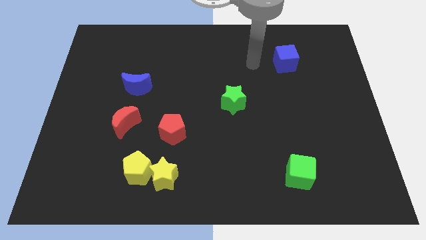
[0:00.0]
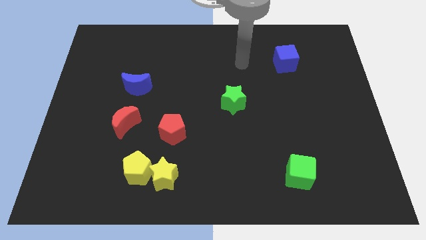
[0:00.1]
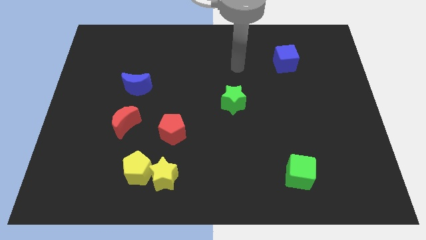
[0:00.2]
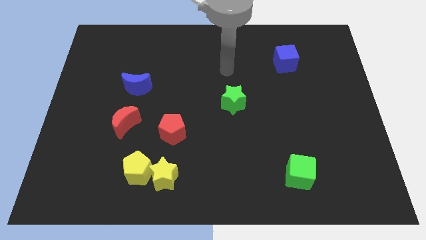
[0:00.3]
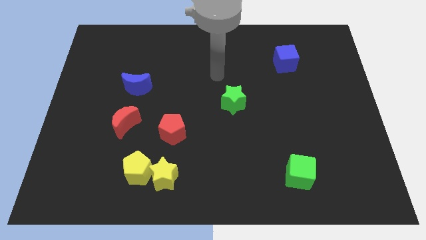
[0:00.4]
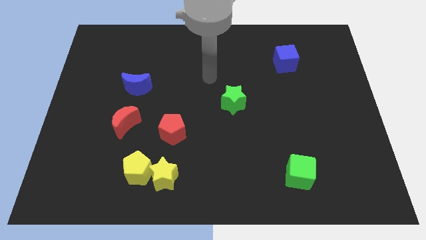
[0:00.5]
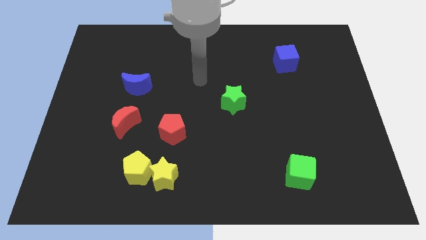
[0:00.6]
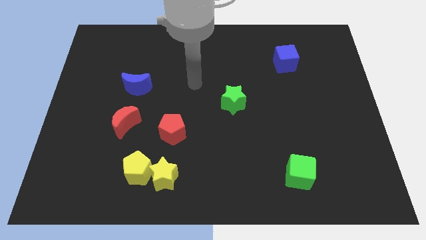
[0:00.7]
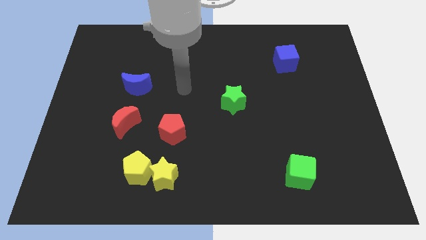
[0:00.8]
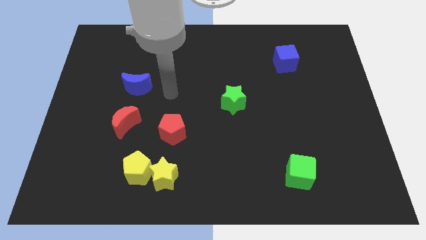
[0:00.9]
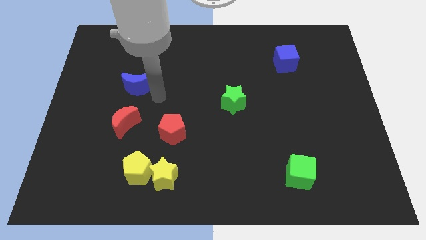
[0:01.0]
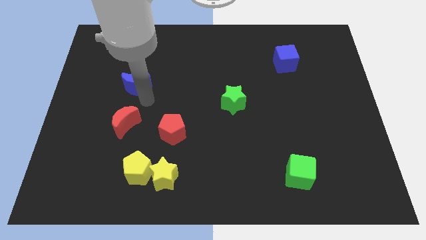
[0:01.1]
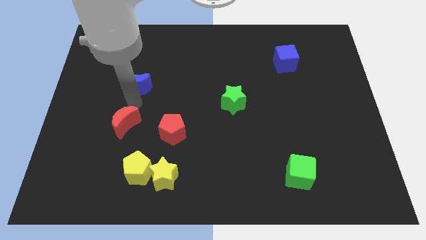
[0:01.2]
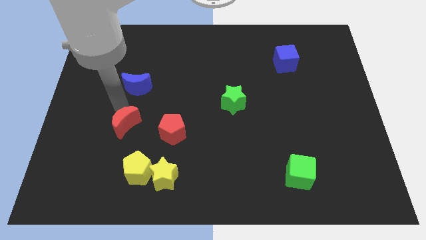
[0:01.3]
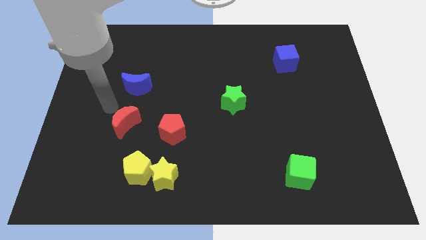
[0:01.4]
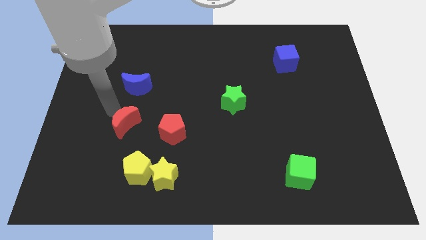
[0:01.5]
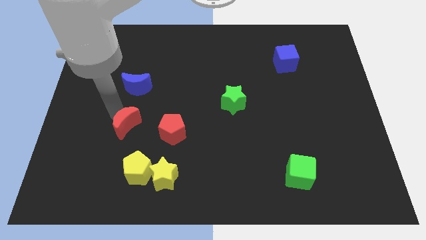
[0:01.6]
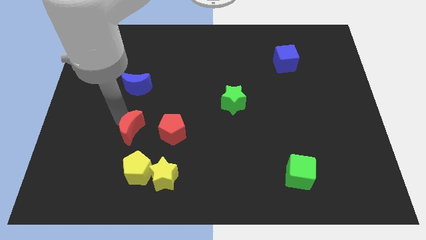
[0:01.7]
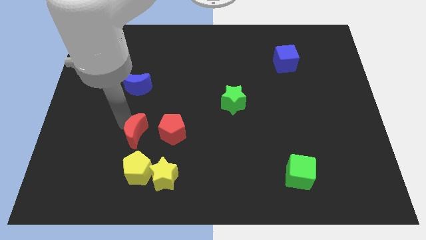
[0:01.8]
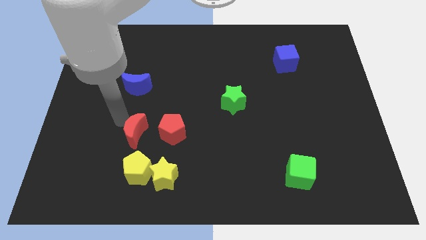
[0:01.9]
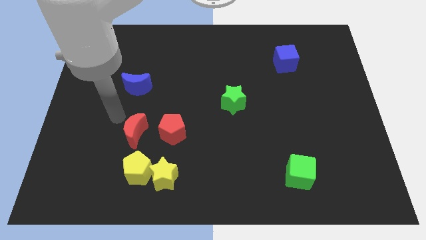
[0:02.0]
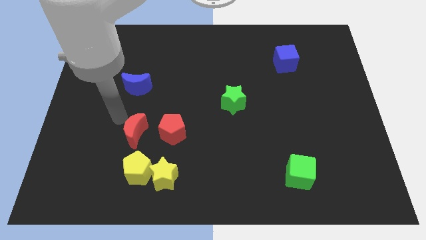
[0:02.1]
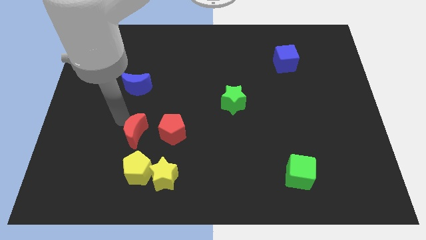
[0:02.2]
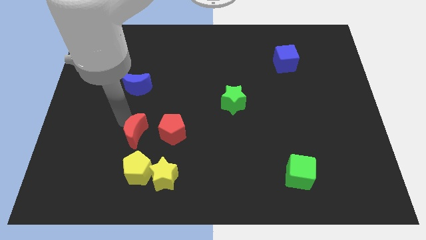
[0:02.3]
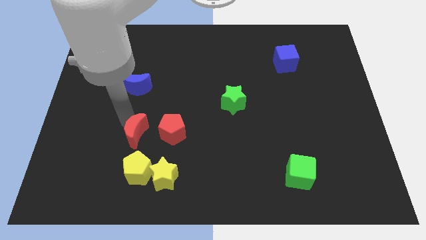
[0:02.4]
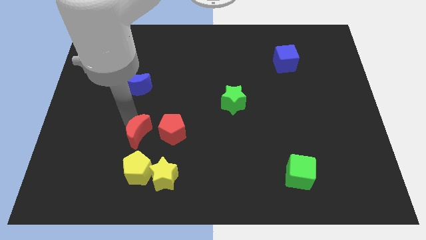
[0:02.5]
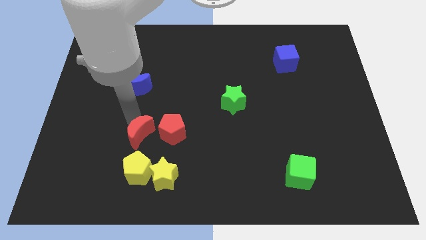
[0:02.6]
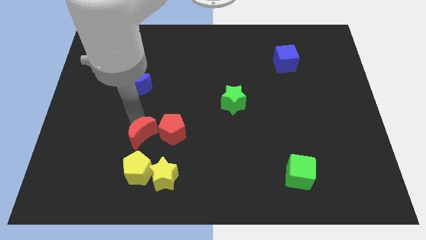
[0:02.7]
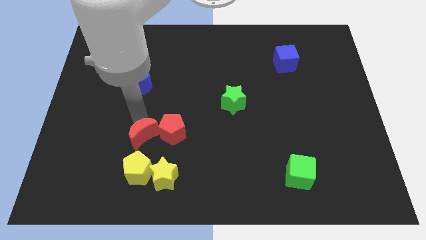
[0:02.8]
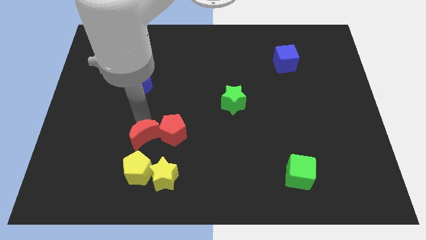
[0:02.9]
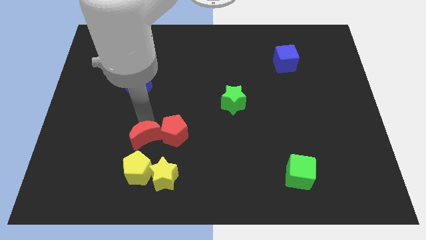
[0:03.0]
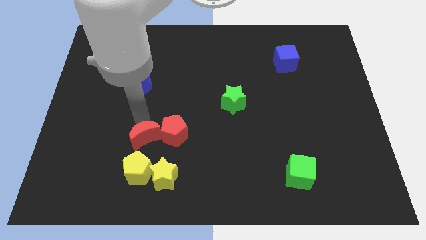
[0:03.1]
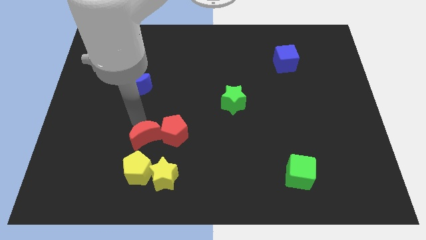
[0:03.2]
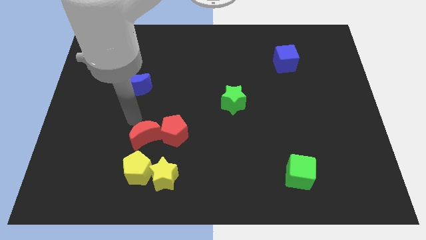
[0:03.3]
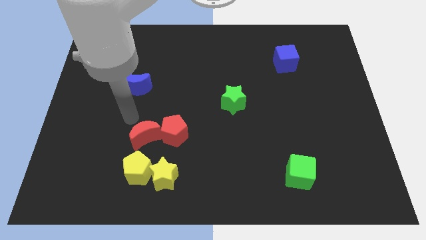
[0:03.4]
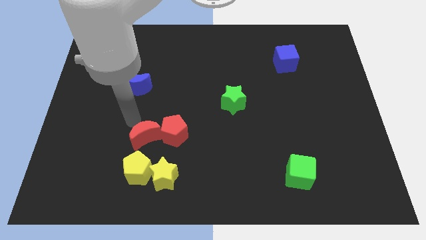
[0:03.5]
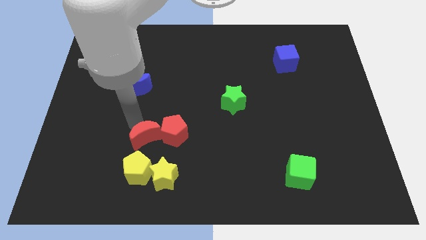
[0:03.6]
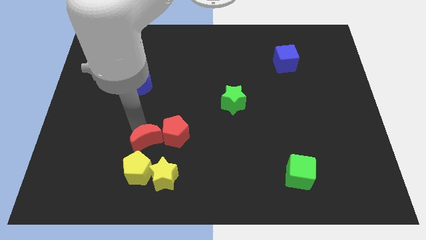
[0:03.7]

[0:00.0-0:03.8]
push the red moon a bit downwards and then to the right

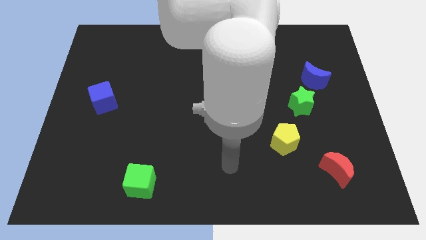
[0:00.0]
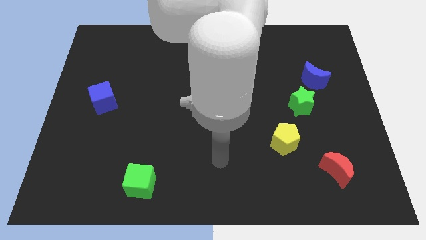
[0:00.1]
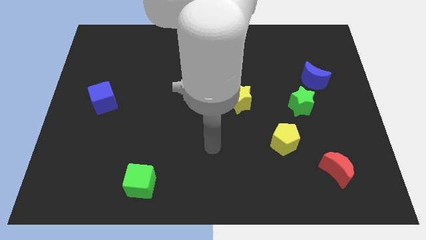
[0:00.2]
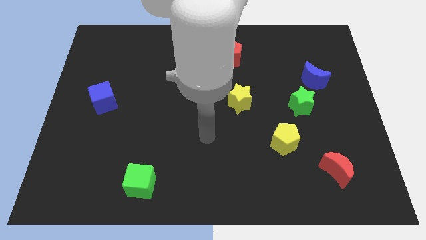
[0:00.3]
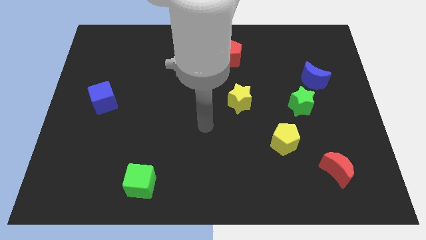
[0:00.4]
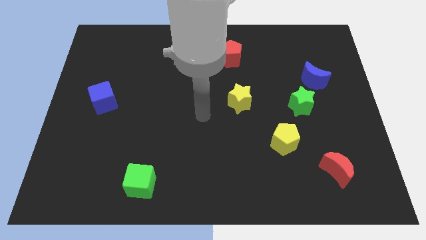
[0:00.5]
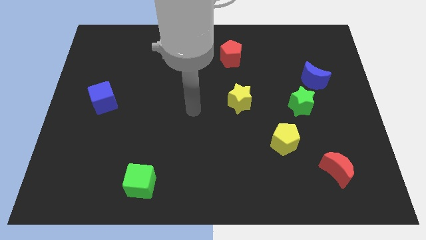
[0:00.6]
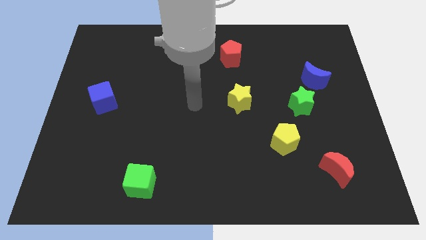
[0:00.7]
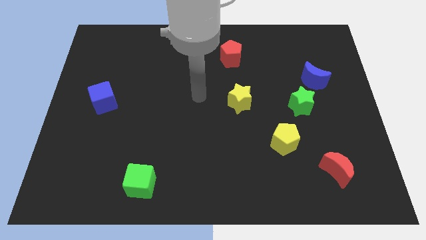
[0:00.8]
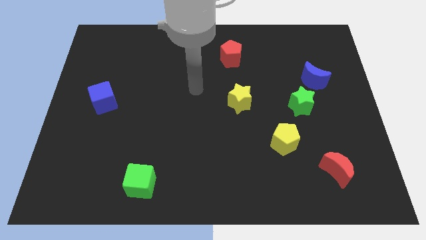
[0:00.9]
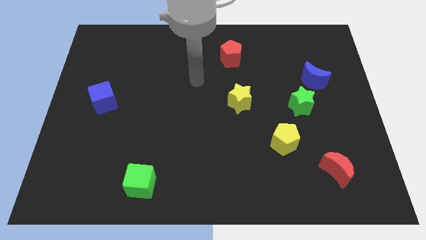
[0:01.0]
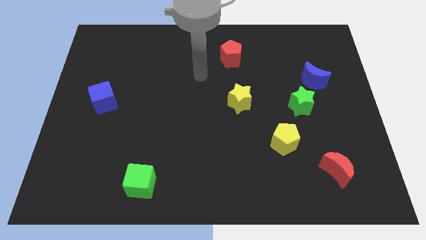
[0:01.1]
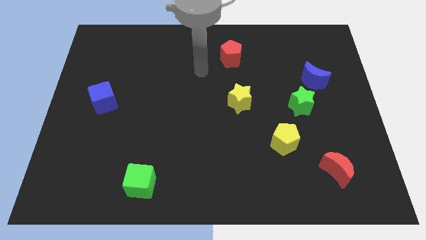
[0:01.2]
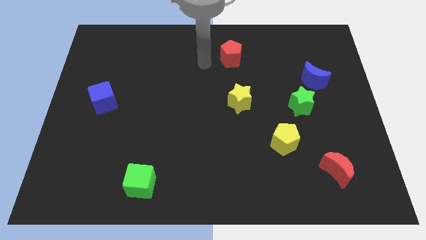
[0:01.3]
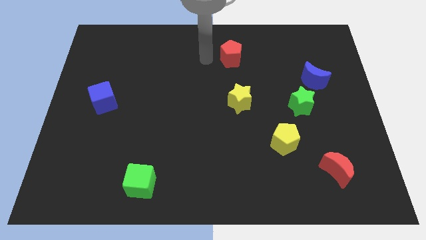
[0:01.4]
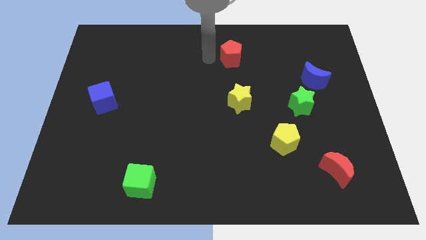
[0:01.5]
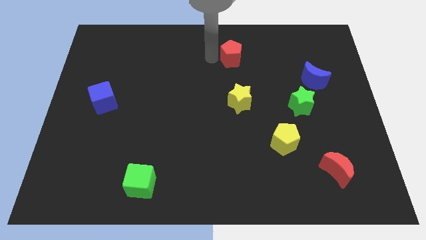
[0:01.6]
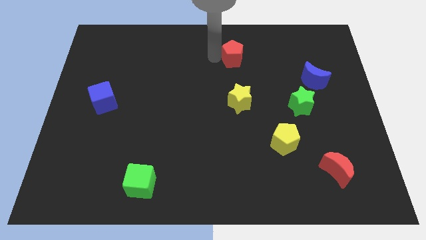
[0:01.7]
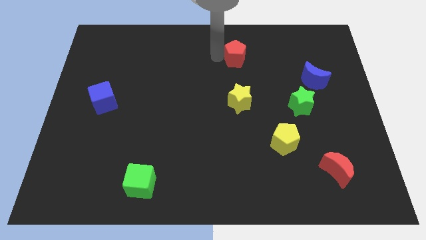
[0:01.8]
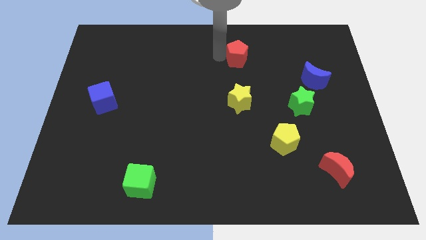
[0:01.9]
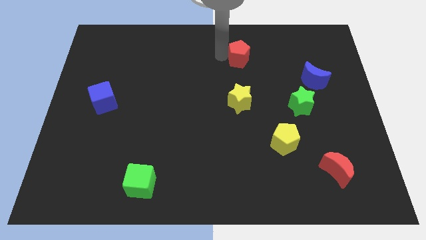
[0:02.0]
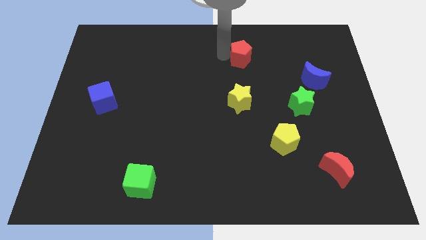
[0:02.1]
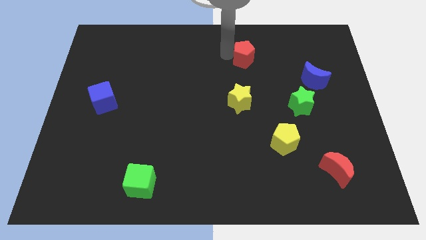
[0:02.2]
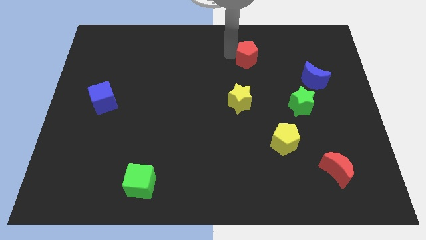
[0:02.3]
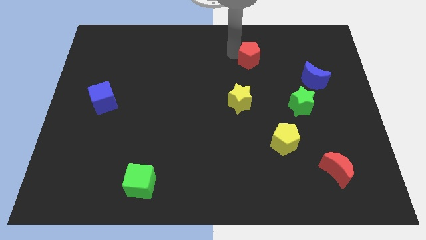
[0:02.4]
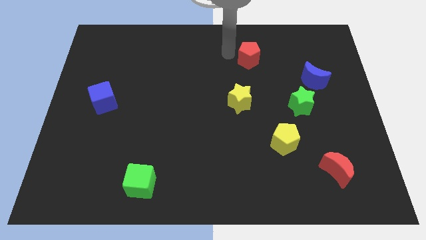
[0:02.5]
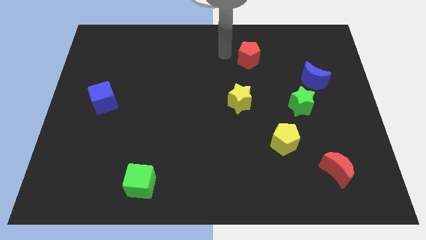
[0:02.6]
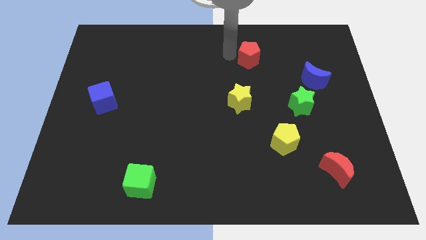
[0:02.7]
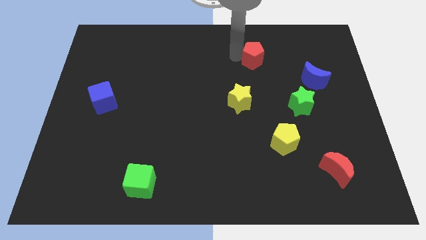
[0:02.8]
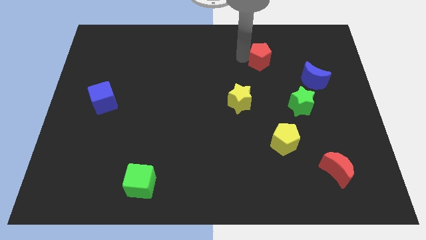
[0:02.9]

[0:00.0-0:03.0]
slightly push the red pentagon right

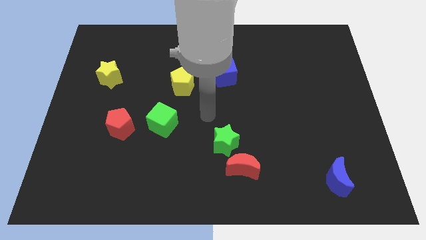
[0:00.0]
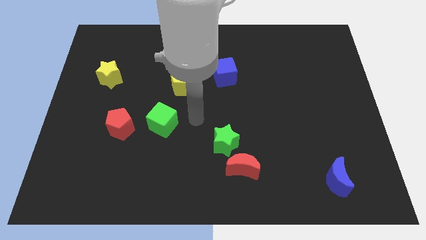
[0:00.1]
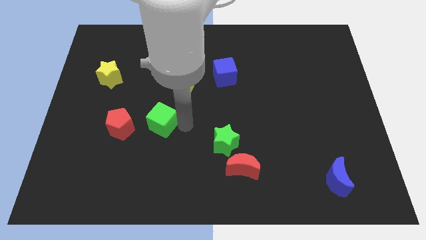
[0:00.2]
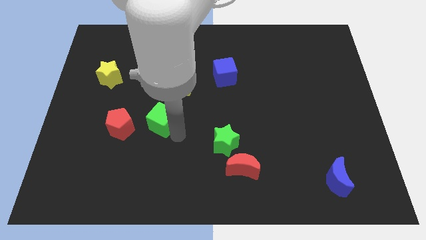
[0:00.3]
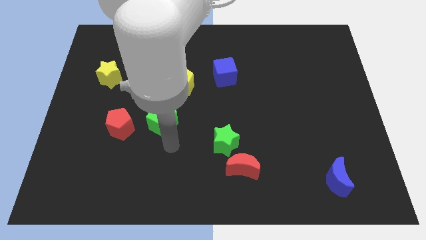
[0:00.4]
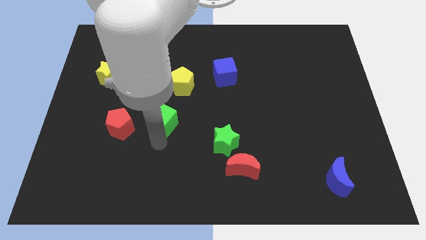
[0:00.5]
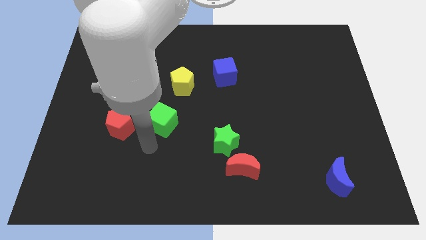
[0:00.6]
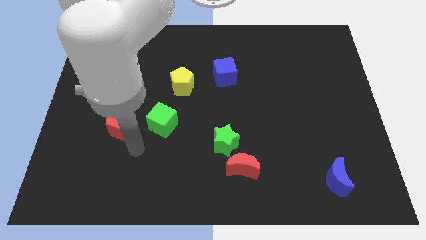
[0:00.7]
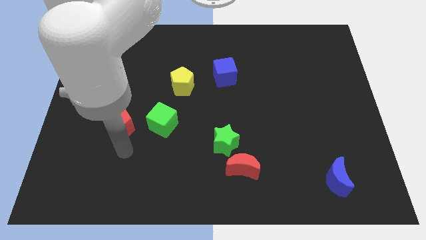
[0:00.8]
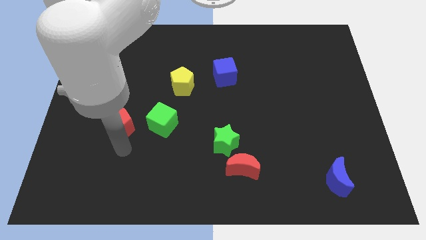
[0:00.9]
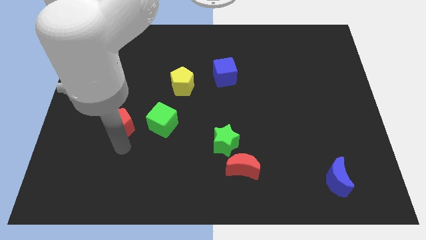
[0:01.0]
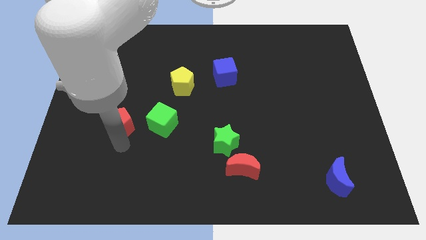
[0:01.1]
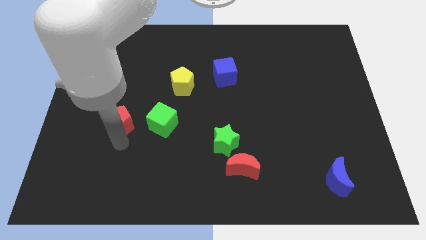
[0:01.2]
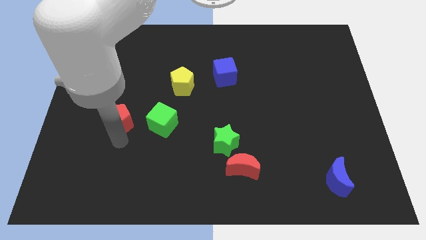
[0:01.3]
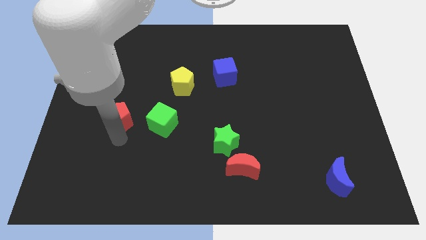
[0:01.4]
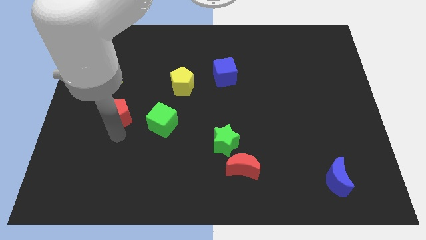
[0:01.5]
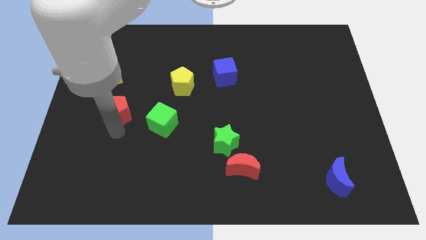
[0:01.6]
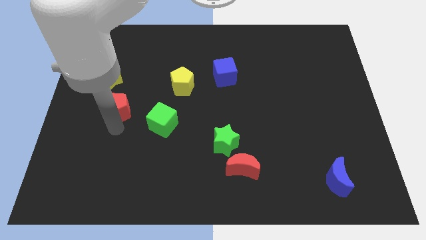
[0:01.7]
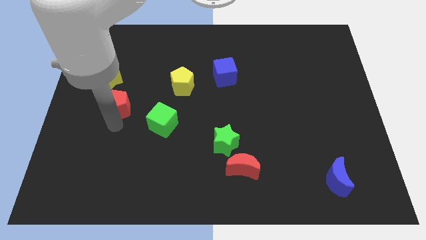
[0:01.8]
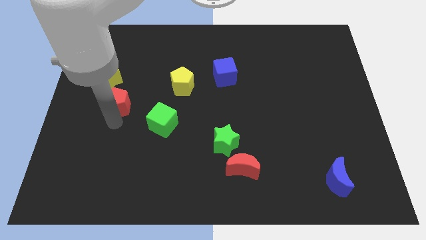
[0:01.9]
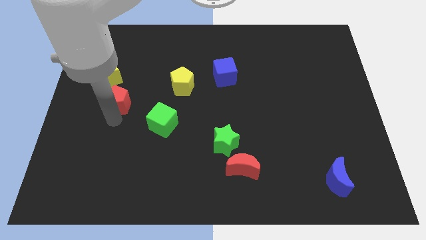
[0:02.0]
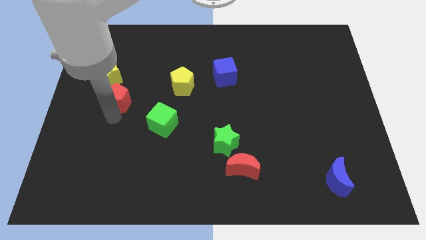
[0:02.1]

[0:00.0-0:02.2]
slightly move the red pentagon upwards
